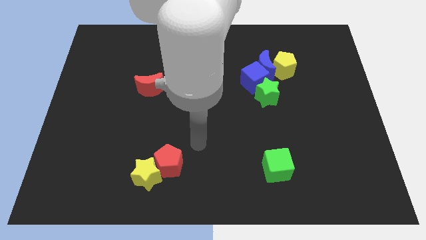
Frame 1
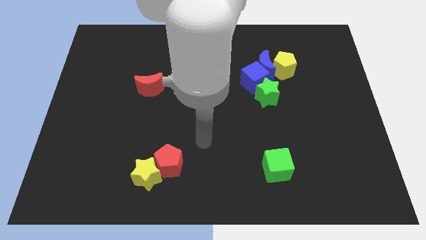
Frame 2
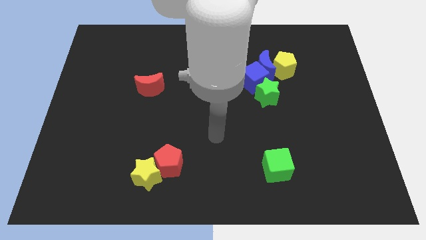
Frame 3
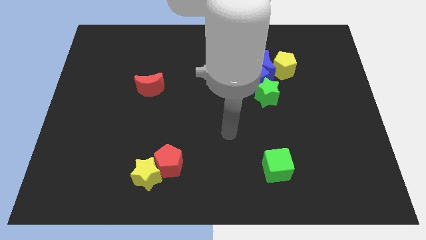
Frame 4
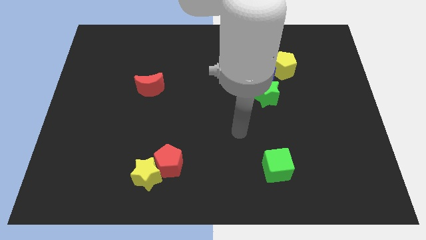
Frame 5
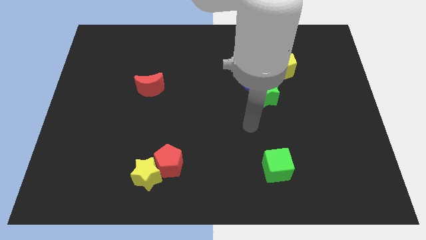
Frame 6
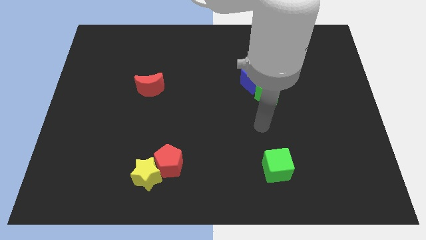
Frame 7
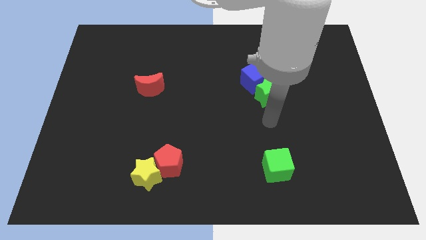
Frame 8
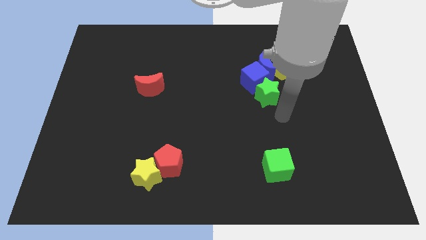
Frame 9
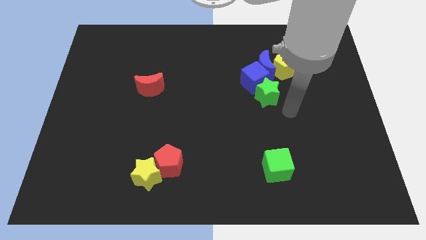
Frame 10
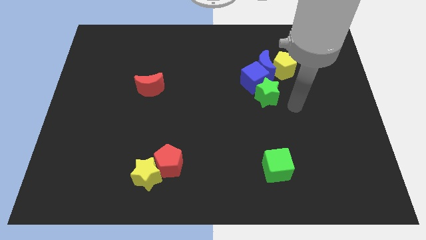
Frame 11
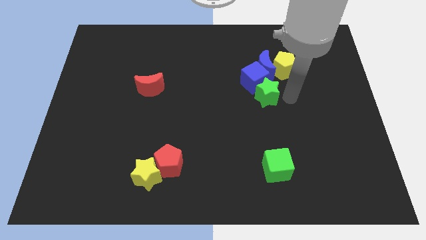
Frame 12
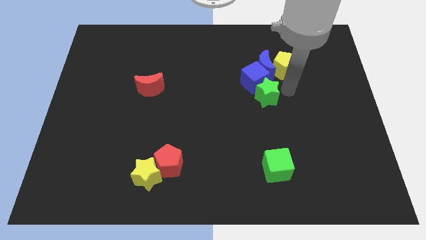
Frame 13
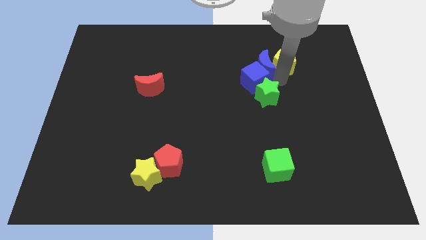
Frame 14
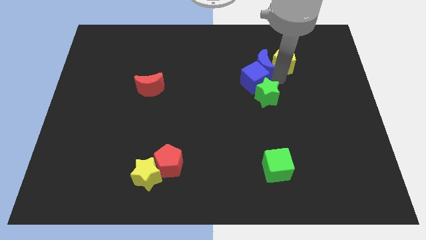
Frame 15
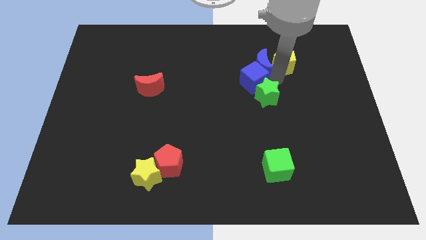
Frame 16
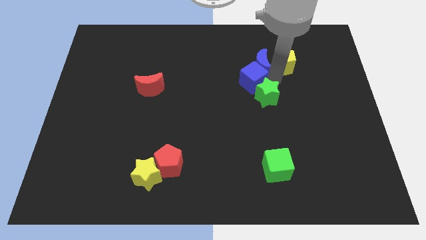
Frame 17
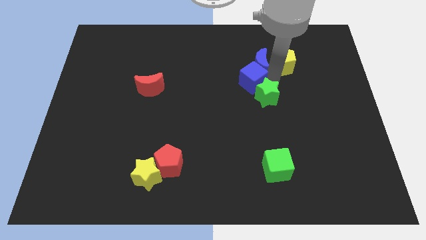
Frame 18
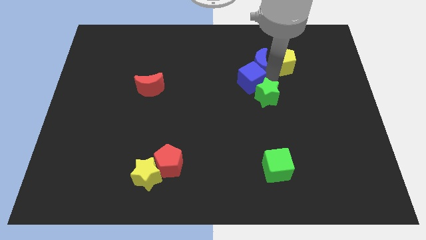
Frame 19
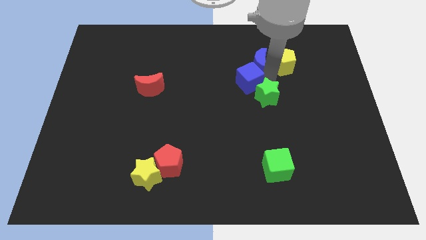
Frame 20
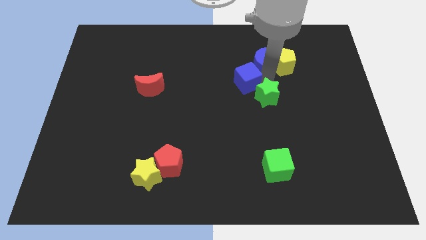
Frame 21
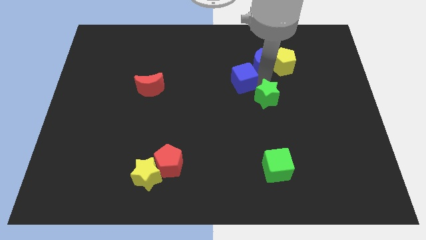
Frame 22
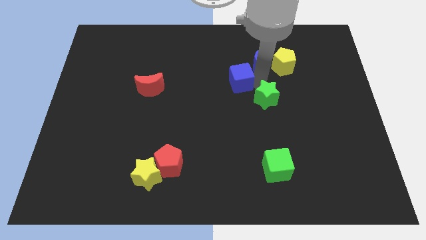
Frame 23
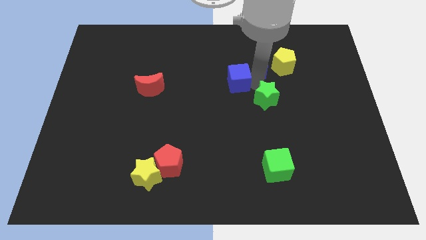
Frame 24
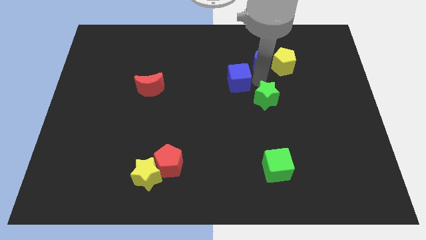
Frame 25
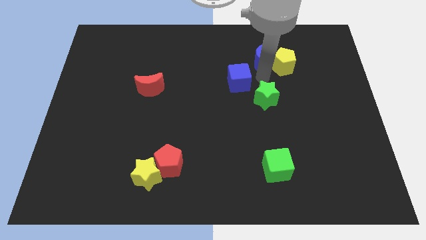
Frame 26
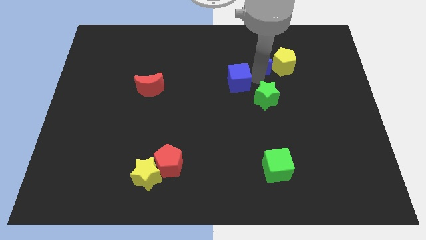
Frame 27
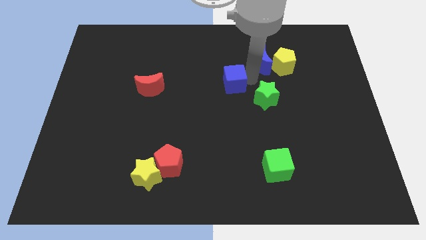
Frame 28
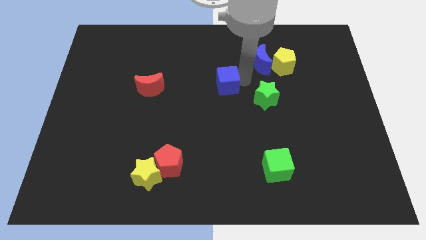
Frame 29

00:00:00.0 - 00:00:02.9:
slightly push the blue cube left

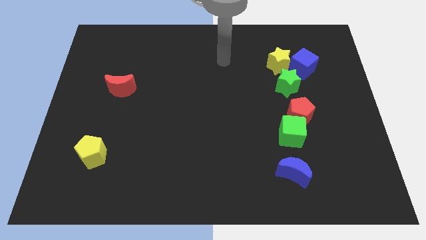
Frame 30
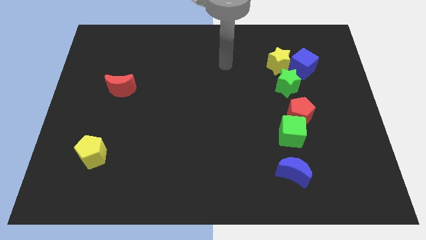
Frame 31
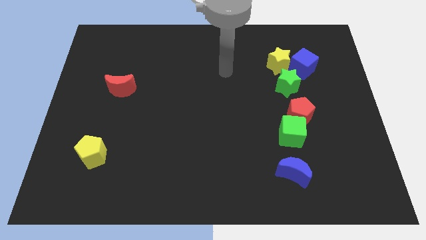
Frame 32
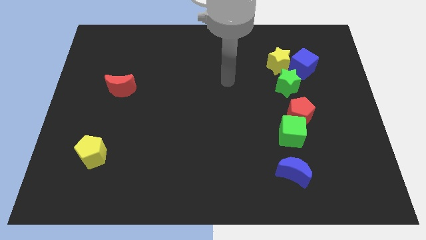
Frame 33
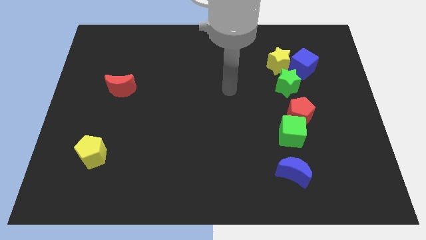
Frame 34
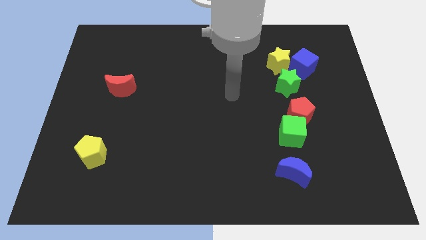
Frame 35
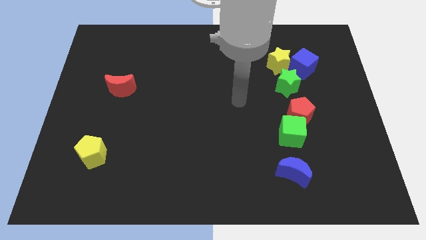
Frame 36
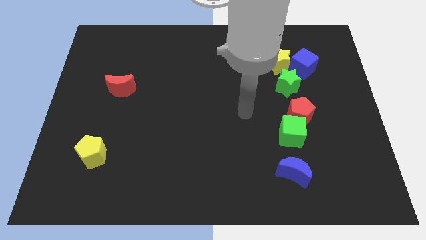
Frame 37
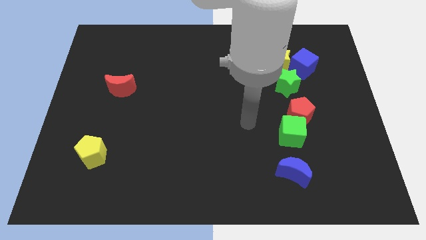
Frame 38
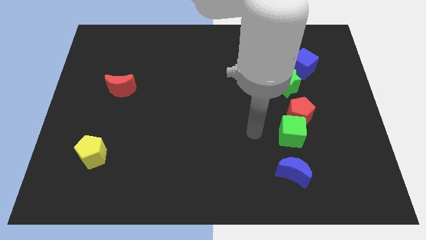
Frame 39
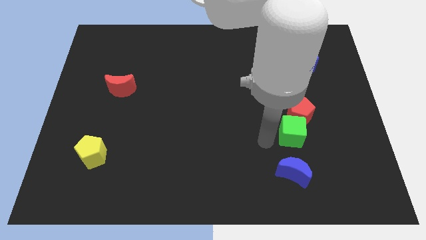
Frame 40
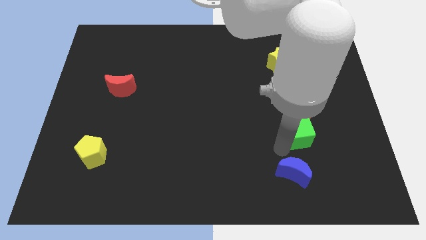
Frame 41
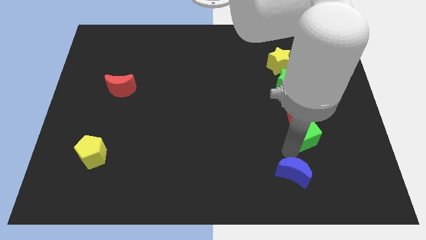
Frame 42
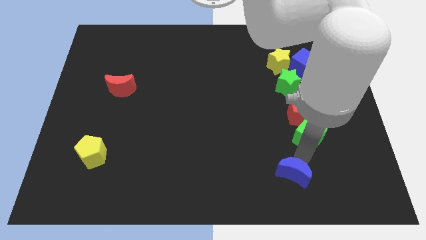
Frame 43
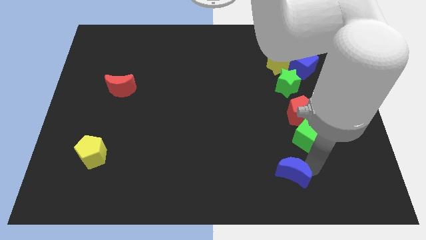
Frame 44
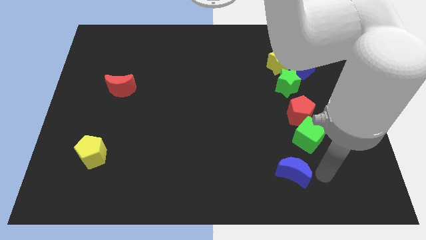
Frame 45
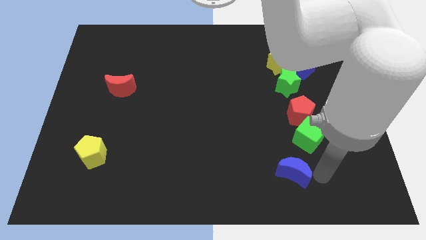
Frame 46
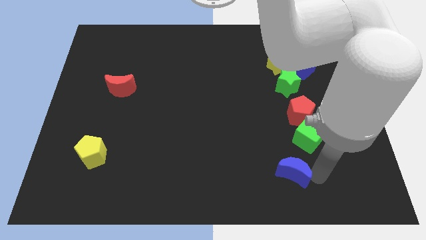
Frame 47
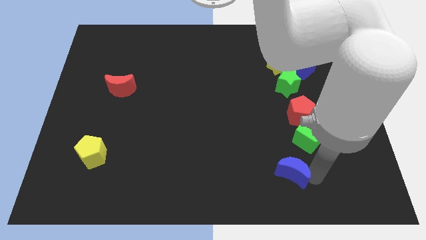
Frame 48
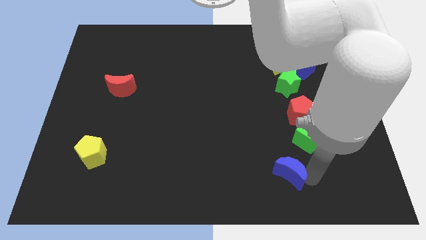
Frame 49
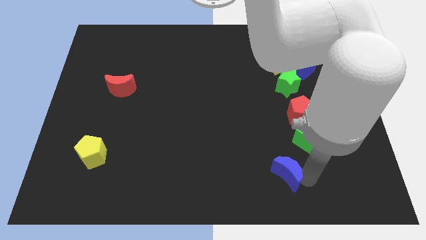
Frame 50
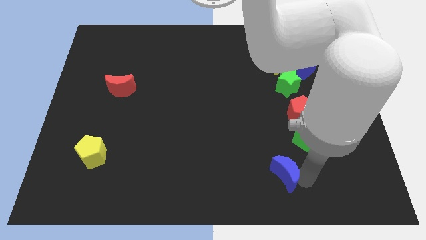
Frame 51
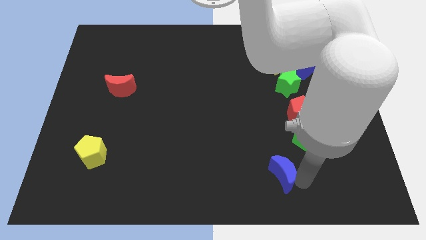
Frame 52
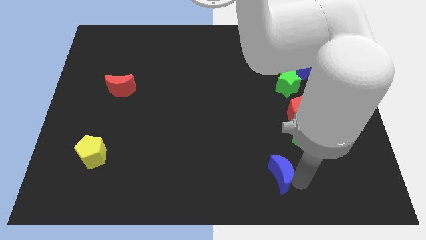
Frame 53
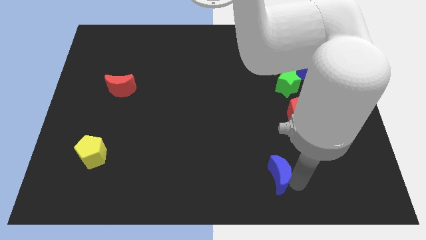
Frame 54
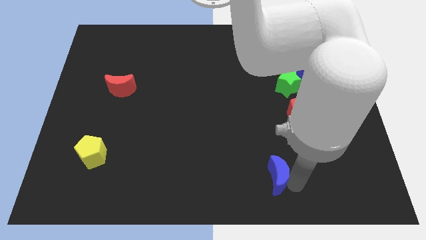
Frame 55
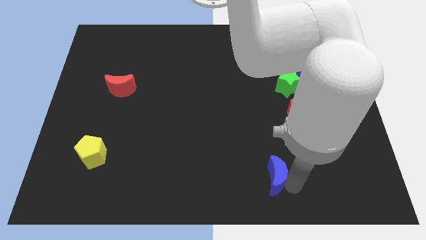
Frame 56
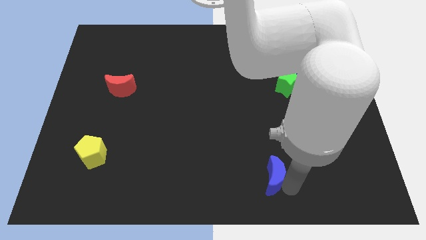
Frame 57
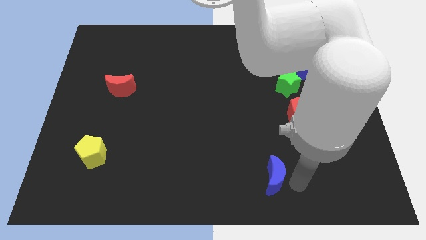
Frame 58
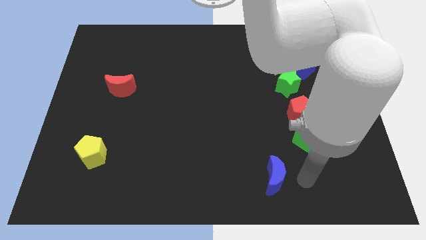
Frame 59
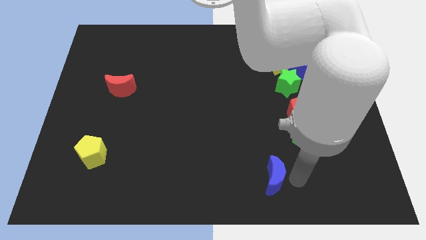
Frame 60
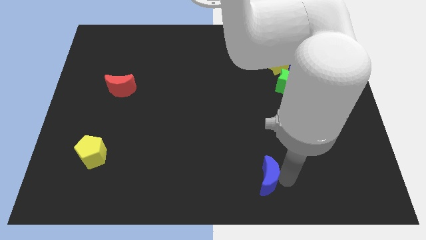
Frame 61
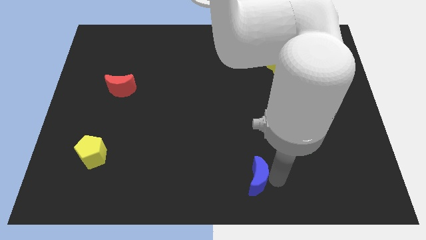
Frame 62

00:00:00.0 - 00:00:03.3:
move the blue moon to the left slightly

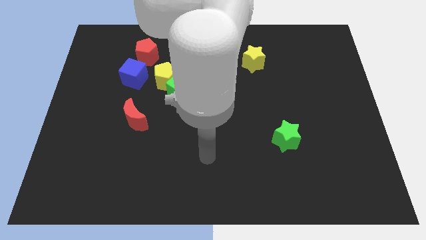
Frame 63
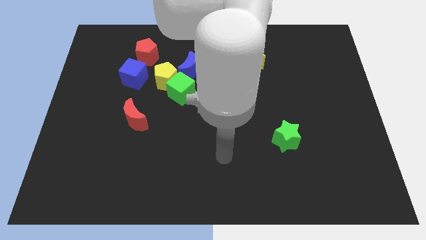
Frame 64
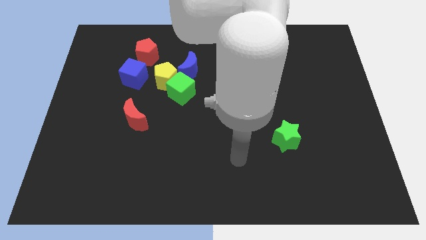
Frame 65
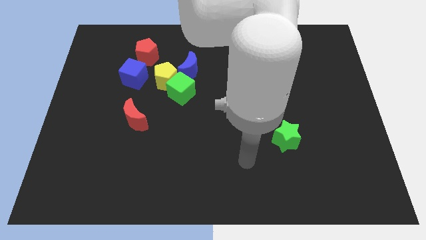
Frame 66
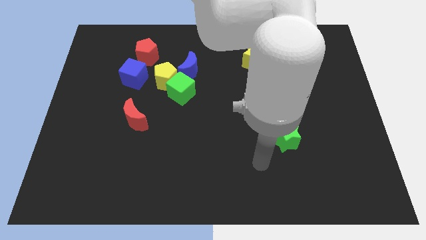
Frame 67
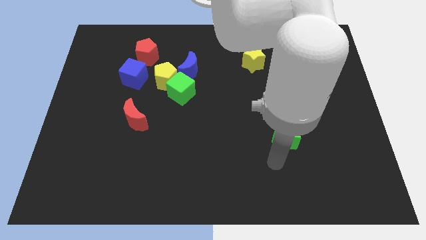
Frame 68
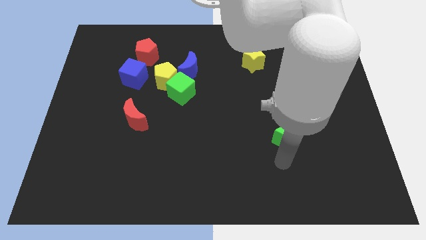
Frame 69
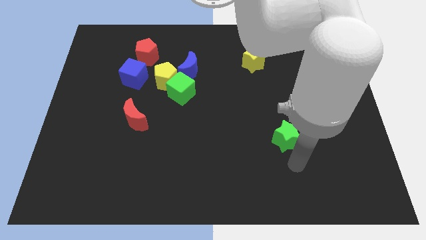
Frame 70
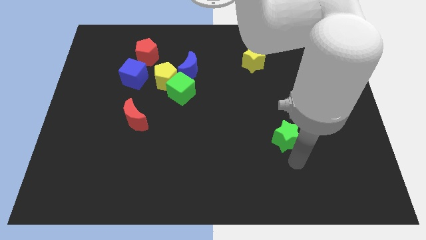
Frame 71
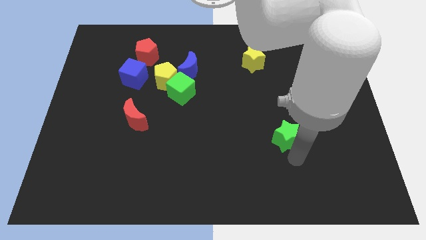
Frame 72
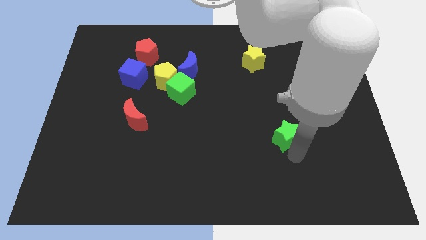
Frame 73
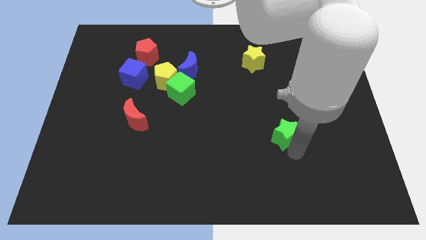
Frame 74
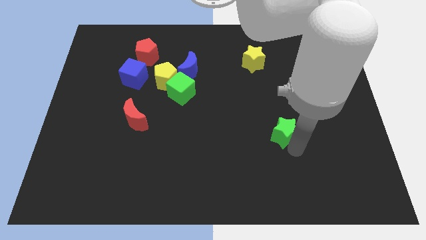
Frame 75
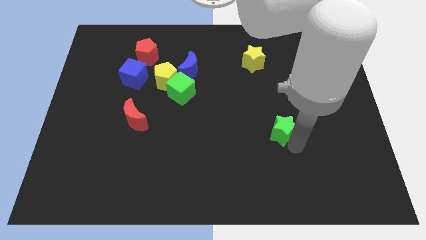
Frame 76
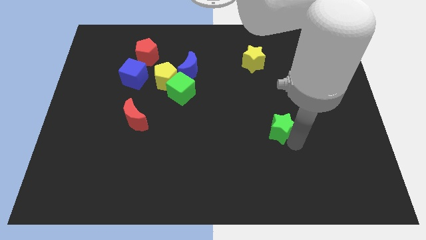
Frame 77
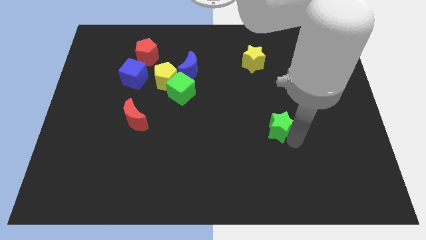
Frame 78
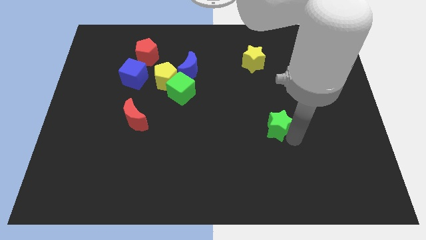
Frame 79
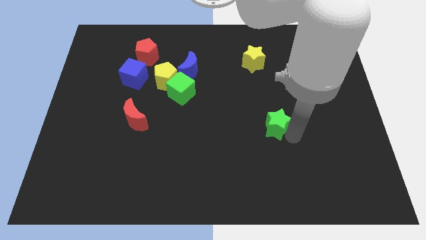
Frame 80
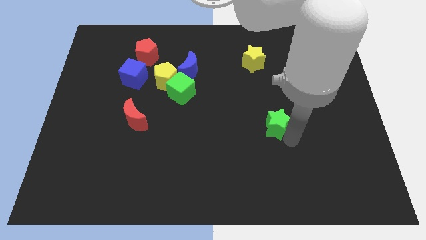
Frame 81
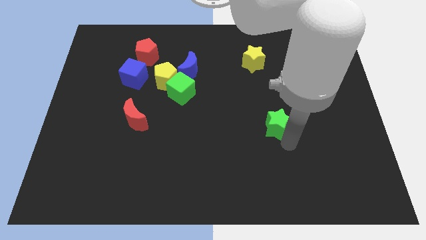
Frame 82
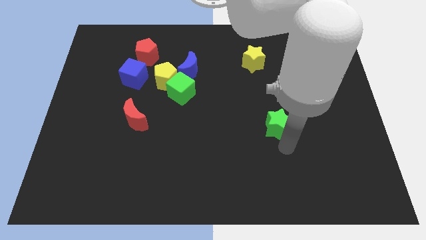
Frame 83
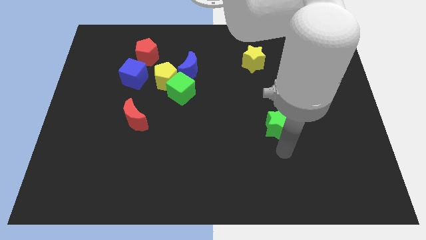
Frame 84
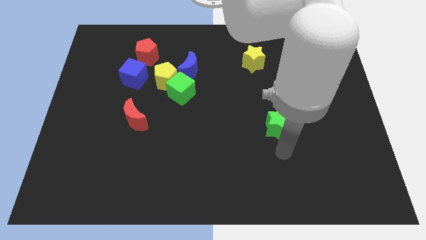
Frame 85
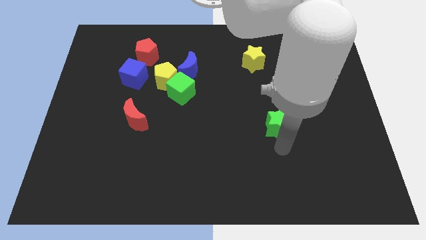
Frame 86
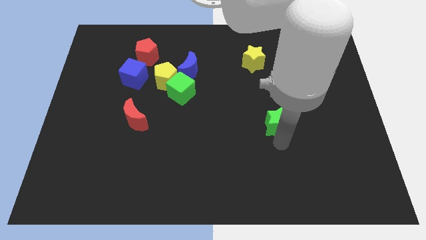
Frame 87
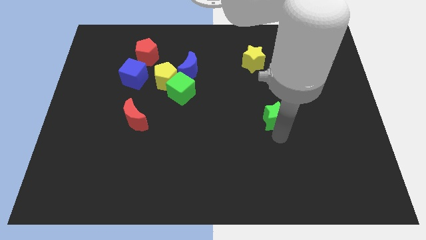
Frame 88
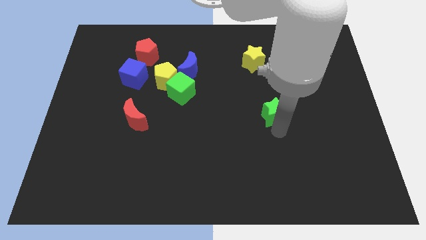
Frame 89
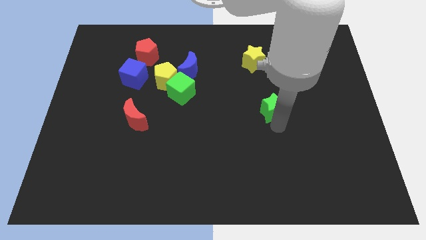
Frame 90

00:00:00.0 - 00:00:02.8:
slightly slide the green star upwards
